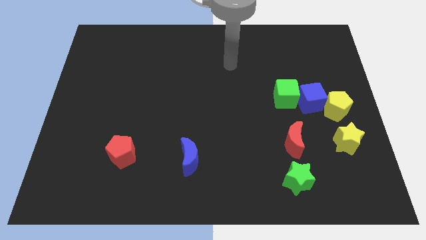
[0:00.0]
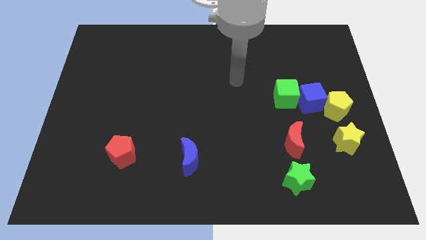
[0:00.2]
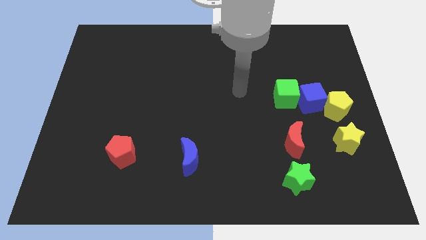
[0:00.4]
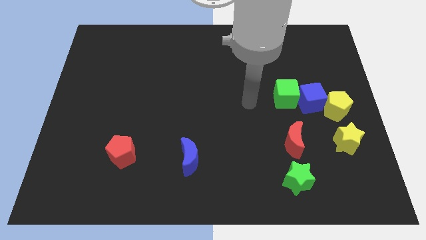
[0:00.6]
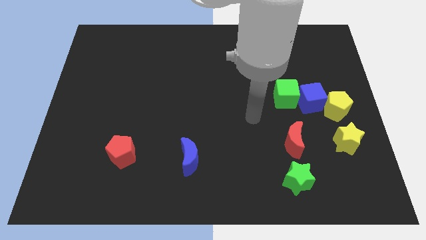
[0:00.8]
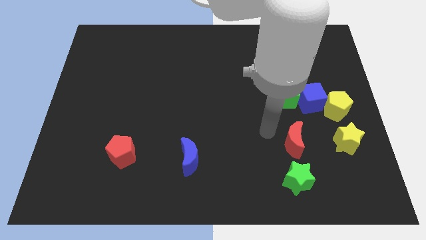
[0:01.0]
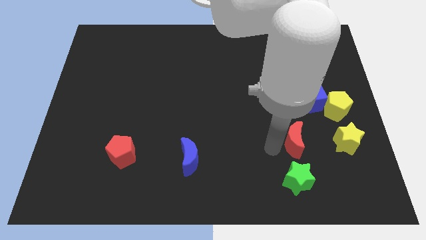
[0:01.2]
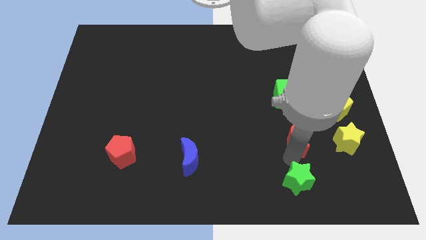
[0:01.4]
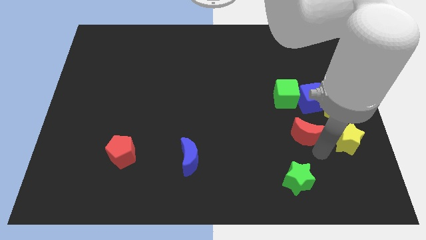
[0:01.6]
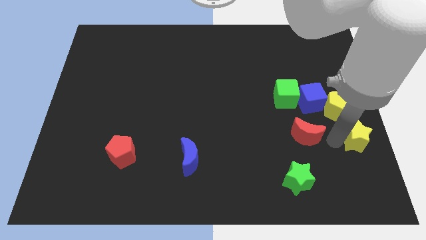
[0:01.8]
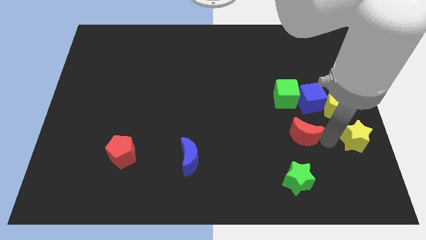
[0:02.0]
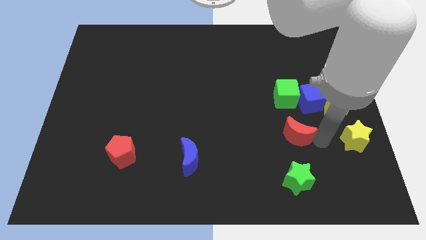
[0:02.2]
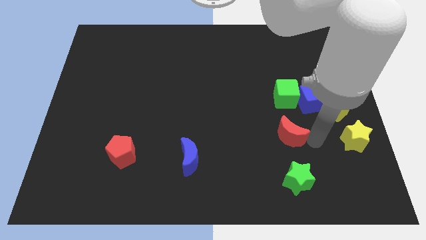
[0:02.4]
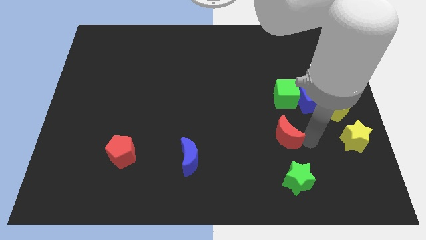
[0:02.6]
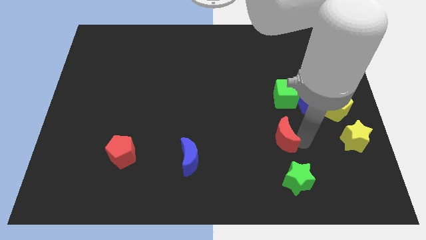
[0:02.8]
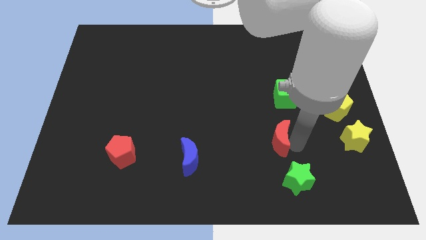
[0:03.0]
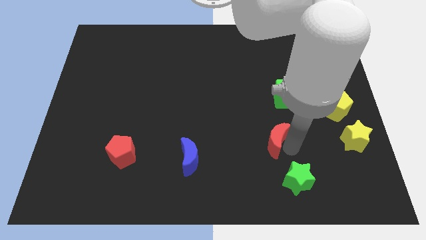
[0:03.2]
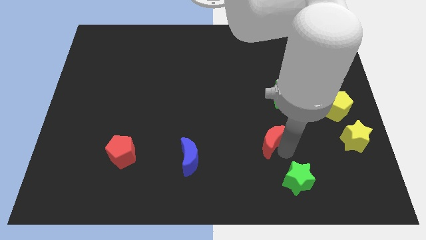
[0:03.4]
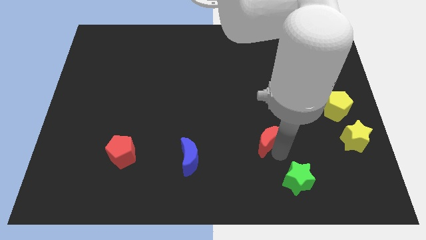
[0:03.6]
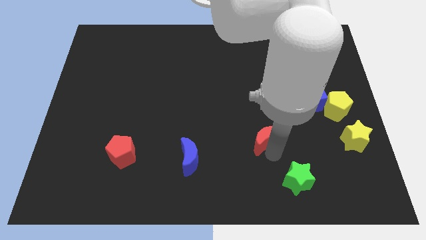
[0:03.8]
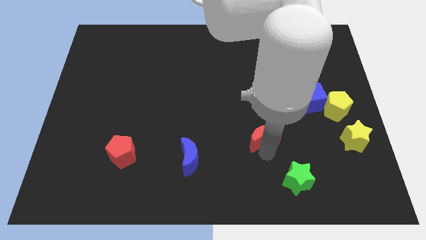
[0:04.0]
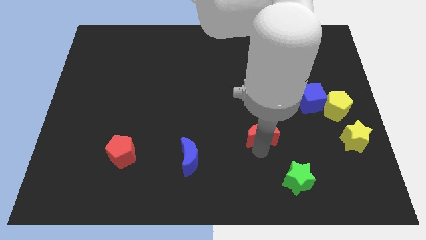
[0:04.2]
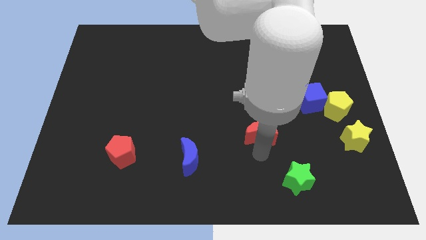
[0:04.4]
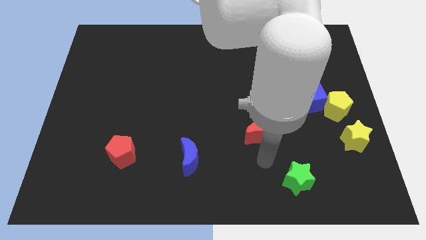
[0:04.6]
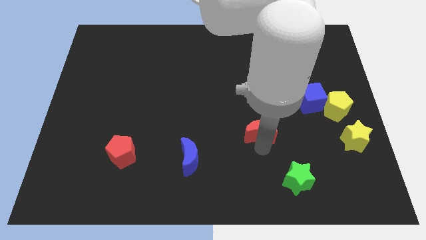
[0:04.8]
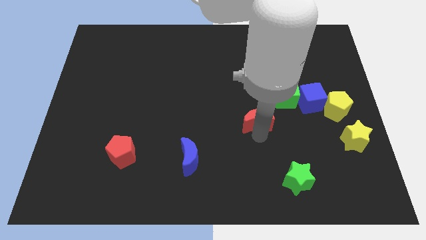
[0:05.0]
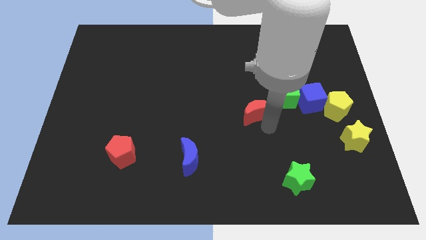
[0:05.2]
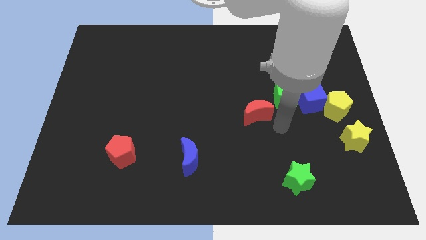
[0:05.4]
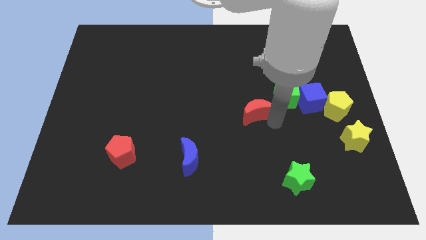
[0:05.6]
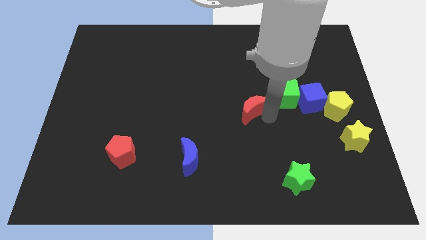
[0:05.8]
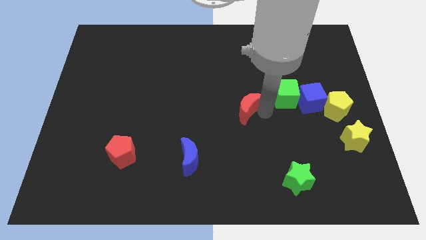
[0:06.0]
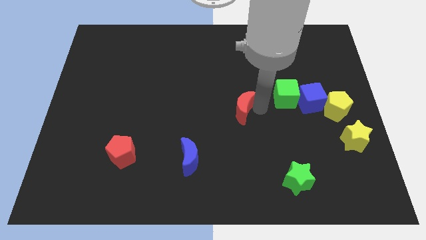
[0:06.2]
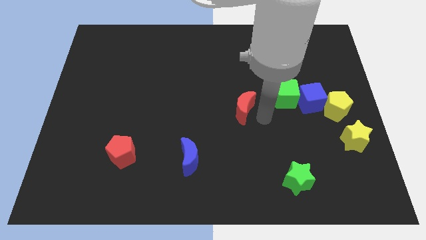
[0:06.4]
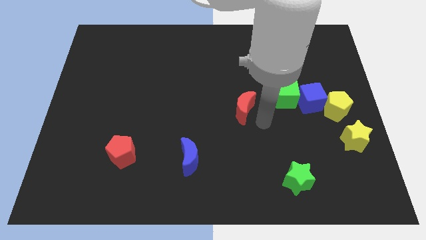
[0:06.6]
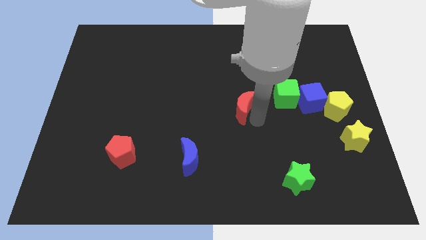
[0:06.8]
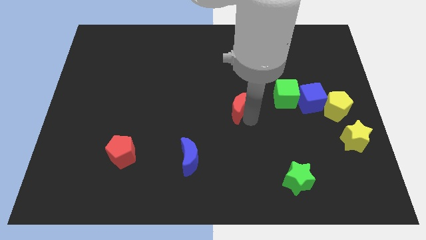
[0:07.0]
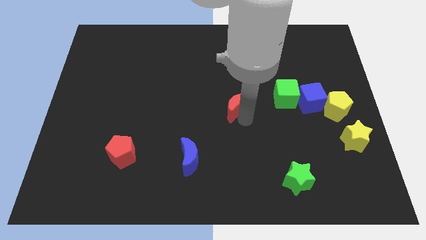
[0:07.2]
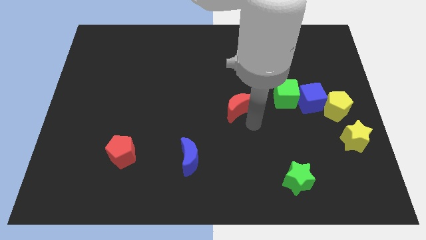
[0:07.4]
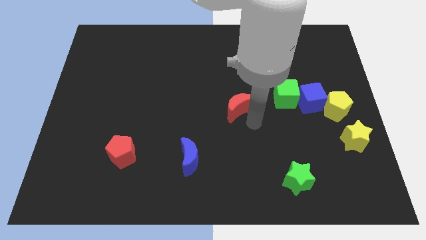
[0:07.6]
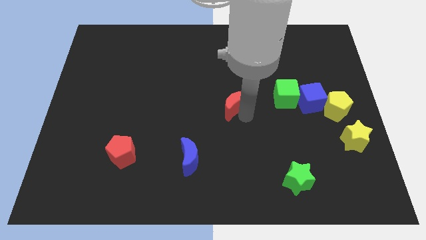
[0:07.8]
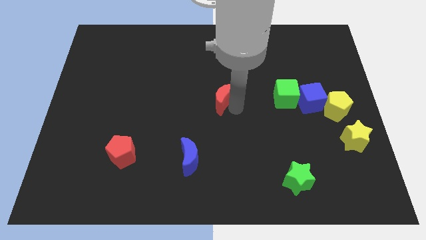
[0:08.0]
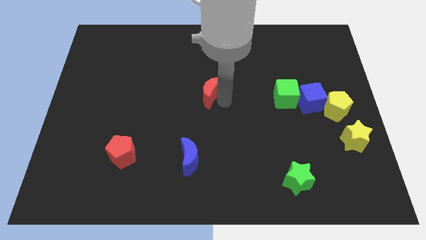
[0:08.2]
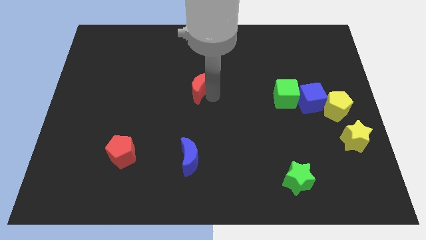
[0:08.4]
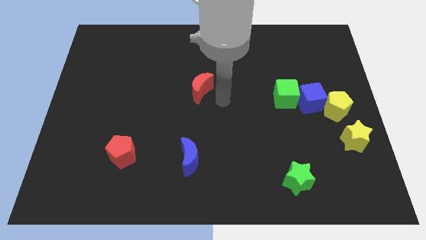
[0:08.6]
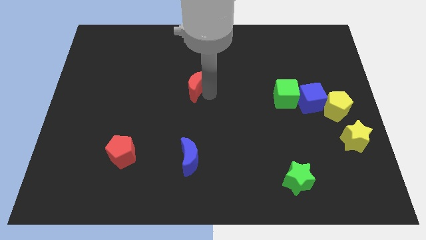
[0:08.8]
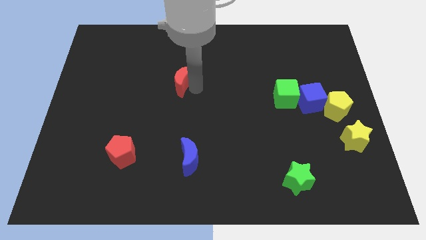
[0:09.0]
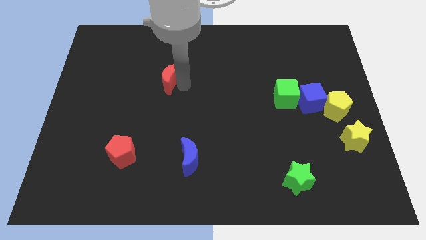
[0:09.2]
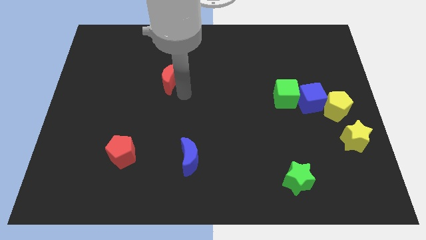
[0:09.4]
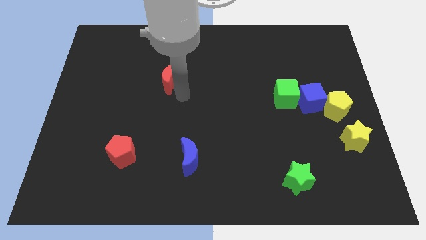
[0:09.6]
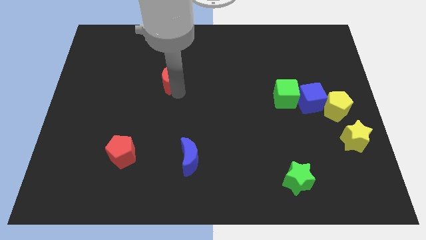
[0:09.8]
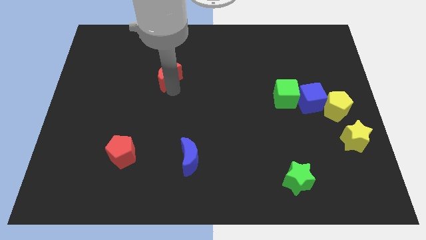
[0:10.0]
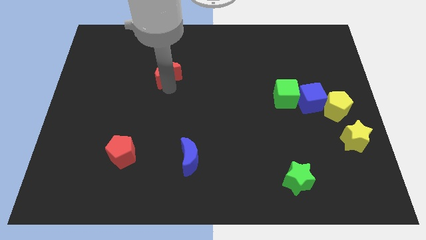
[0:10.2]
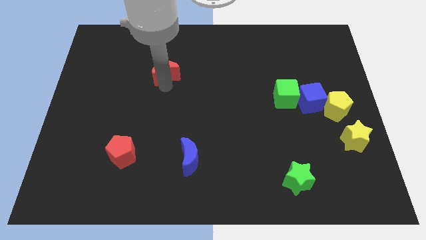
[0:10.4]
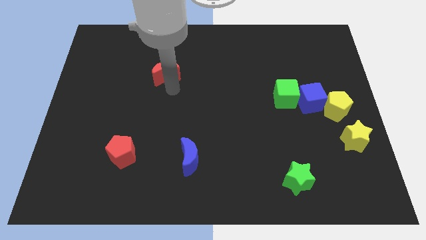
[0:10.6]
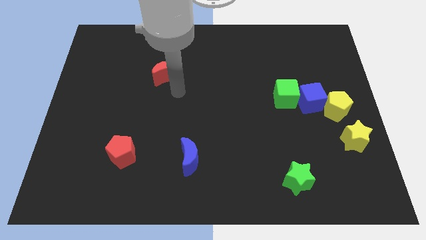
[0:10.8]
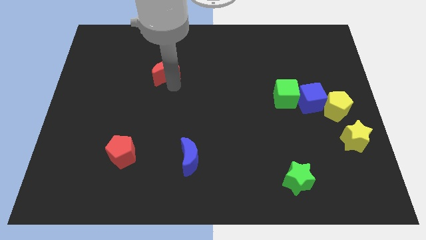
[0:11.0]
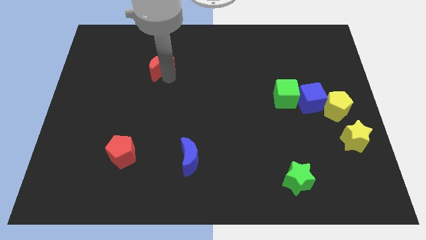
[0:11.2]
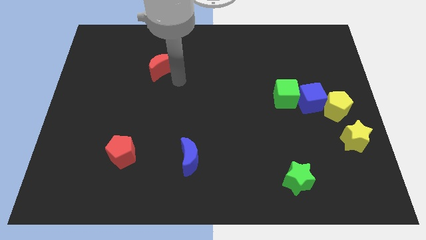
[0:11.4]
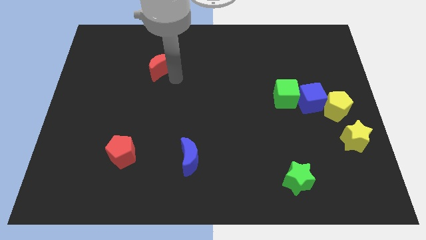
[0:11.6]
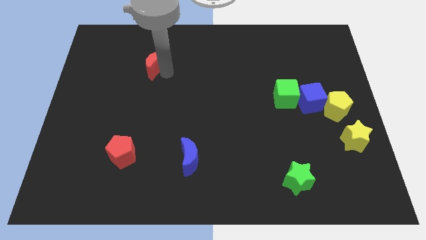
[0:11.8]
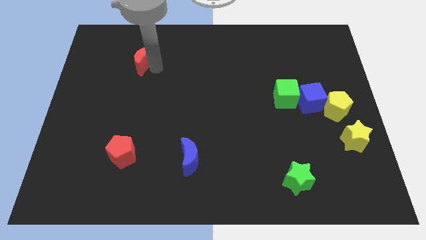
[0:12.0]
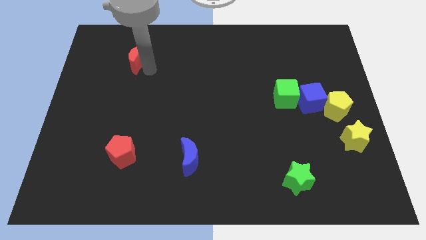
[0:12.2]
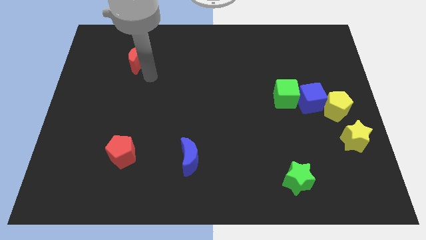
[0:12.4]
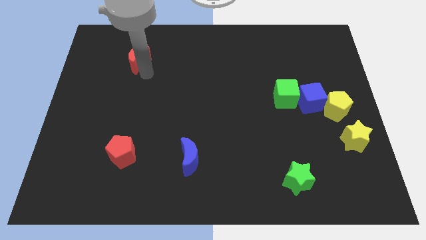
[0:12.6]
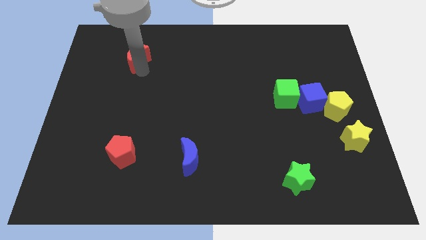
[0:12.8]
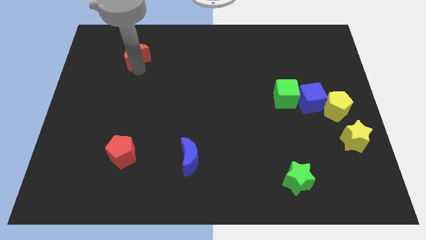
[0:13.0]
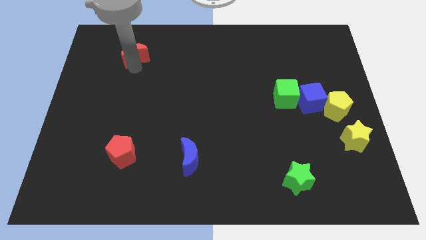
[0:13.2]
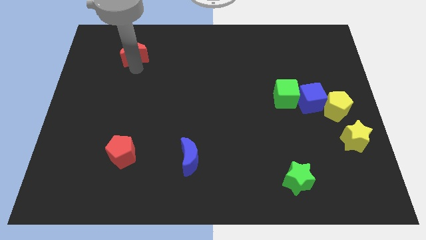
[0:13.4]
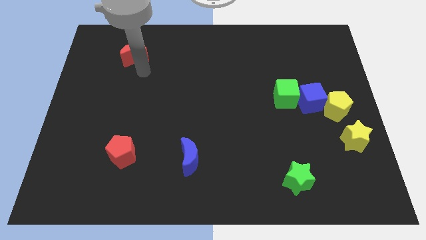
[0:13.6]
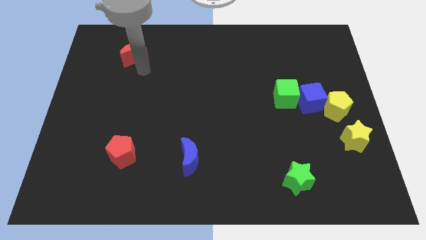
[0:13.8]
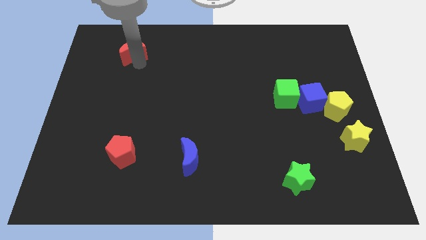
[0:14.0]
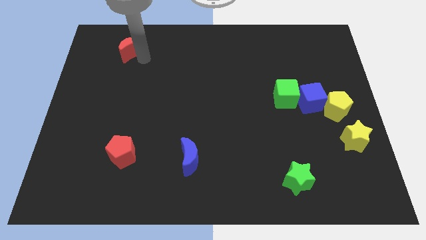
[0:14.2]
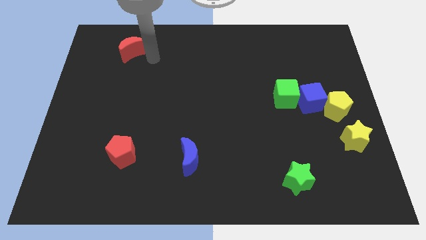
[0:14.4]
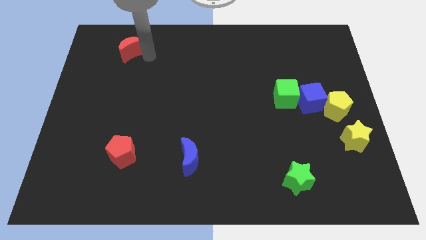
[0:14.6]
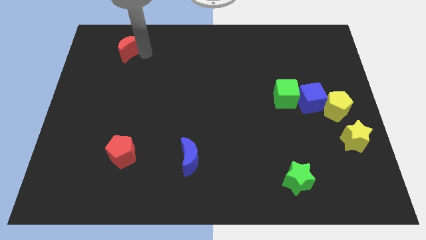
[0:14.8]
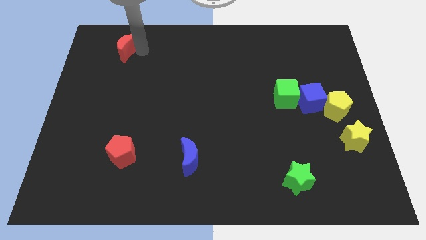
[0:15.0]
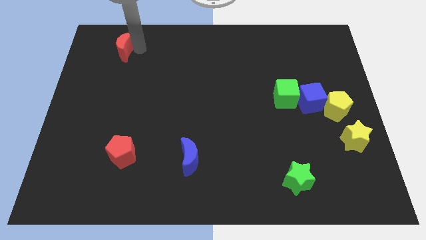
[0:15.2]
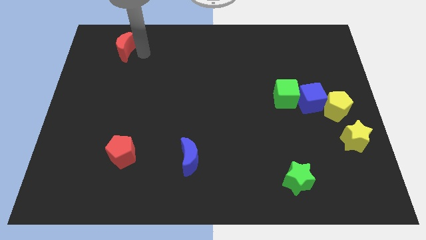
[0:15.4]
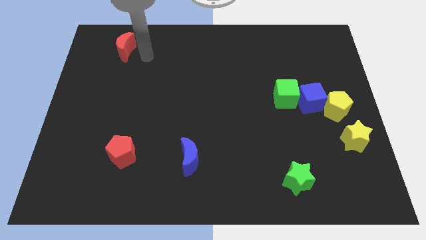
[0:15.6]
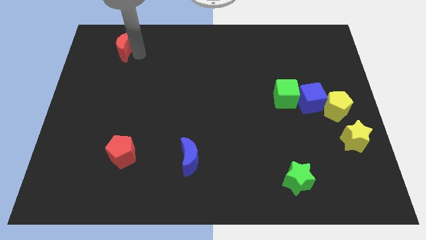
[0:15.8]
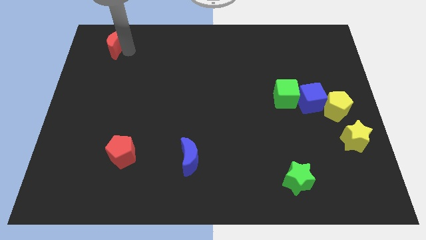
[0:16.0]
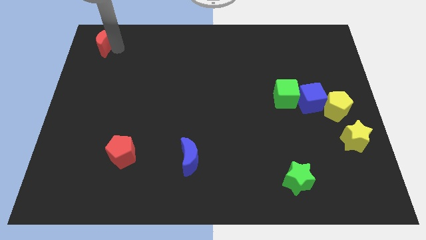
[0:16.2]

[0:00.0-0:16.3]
put the red moon to the upper left corner
